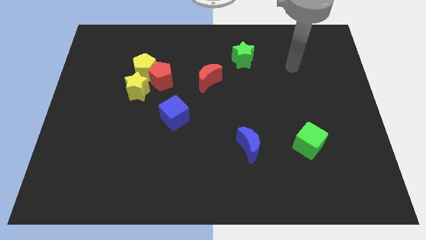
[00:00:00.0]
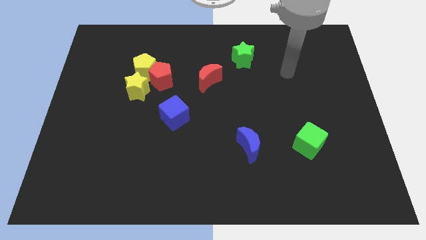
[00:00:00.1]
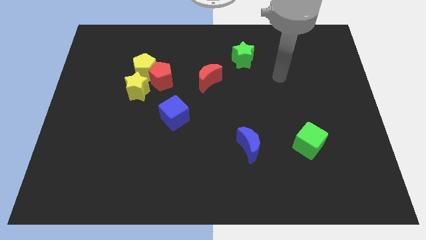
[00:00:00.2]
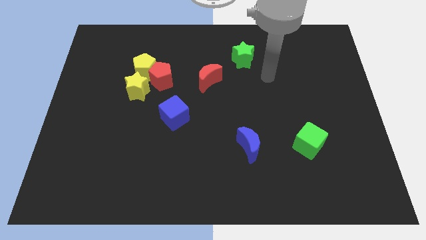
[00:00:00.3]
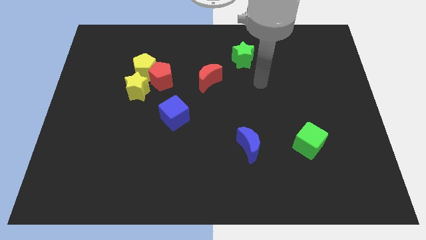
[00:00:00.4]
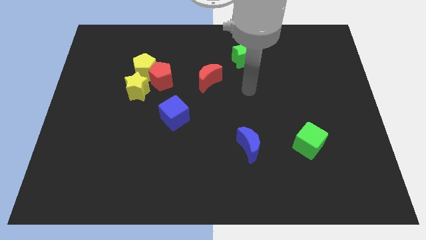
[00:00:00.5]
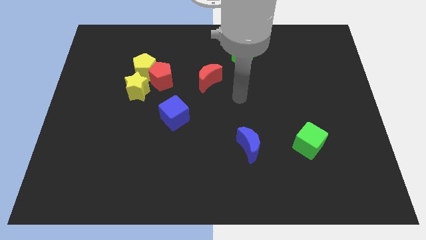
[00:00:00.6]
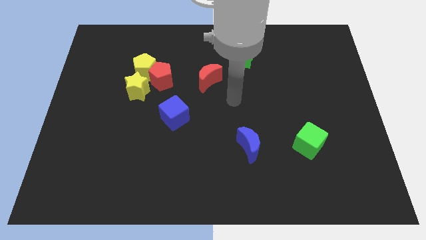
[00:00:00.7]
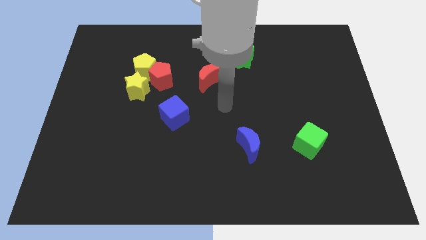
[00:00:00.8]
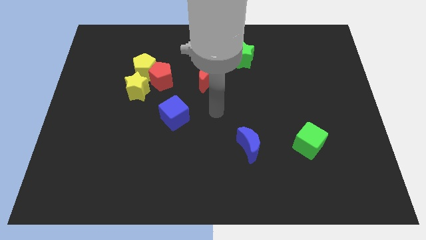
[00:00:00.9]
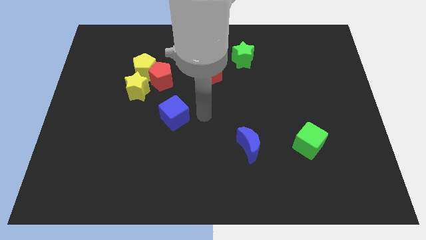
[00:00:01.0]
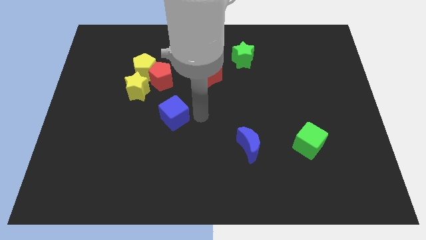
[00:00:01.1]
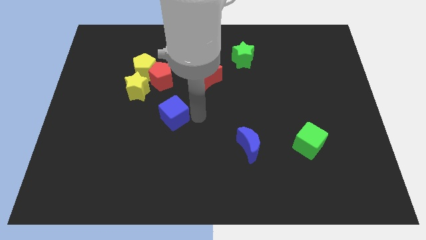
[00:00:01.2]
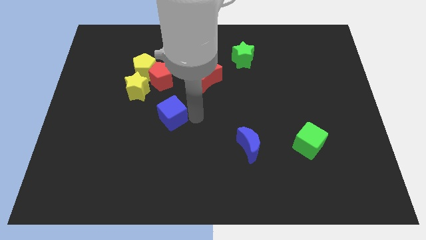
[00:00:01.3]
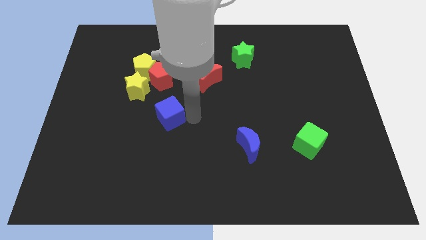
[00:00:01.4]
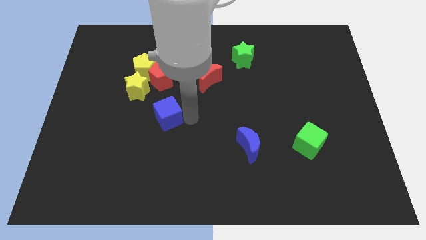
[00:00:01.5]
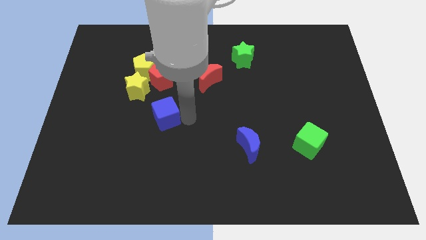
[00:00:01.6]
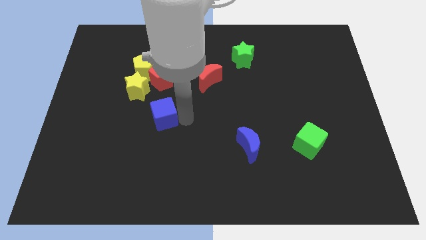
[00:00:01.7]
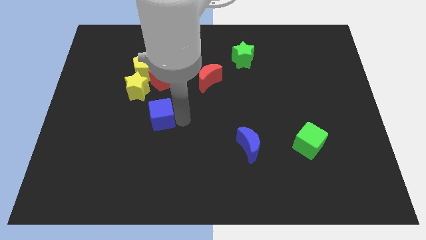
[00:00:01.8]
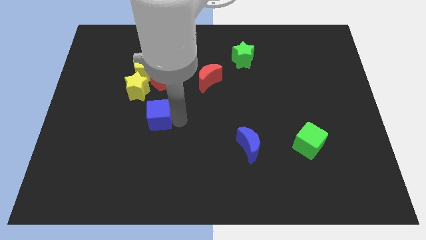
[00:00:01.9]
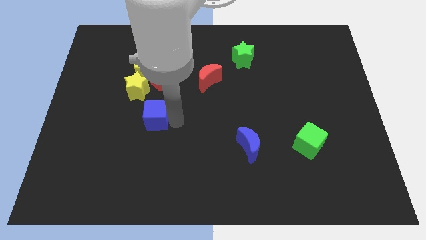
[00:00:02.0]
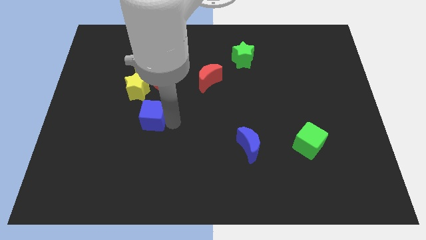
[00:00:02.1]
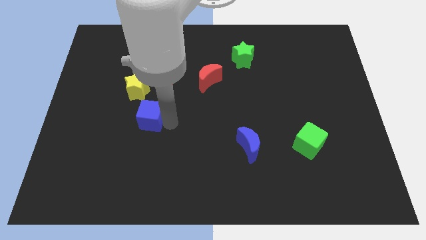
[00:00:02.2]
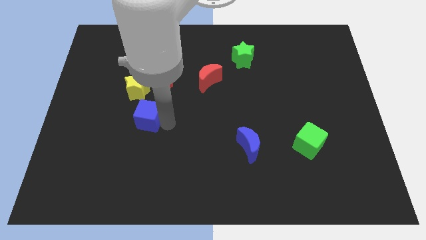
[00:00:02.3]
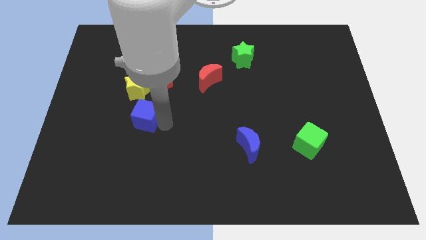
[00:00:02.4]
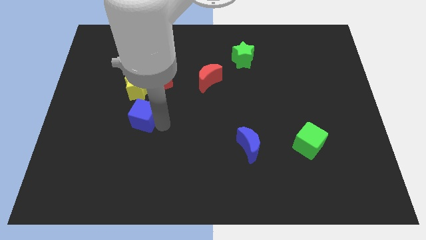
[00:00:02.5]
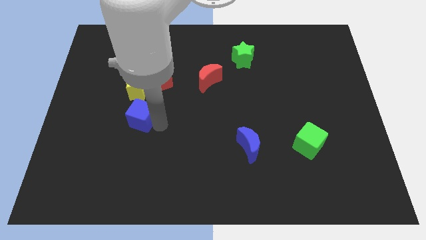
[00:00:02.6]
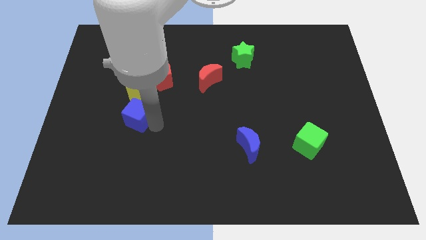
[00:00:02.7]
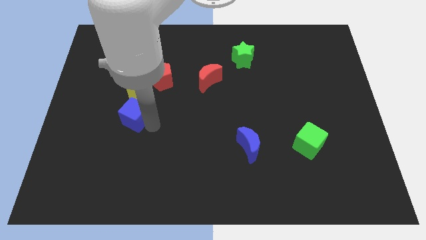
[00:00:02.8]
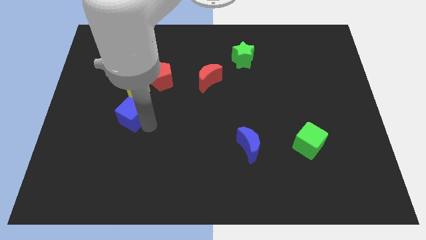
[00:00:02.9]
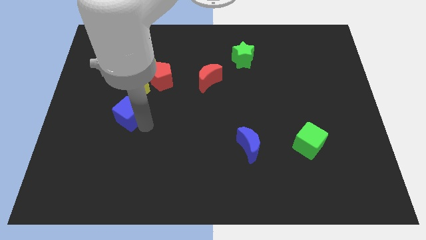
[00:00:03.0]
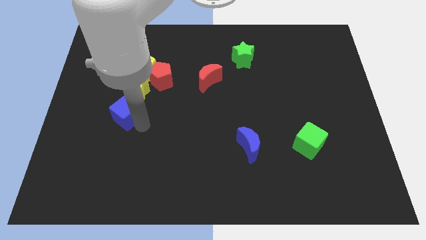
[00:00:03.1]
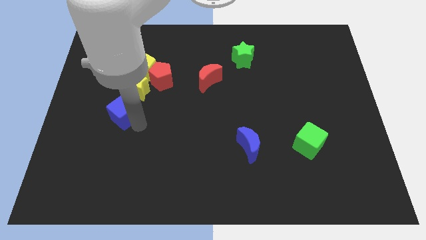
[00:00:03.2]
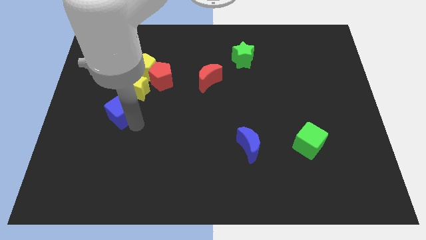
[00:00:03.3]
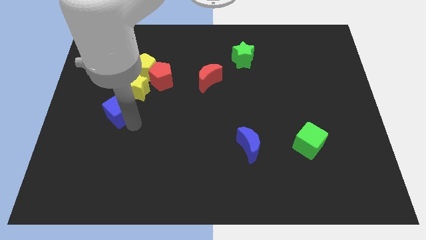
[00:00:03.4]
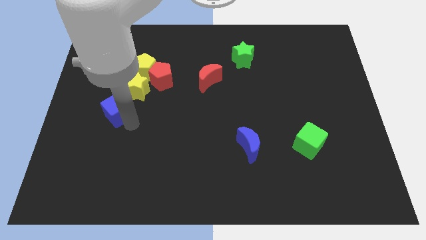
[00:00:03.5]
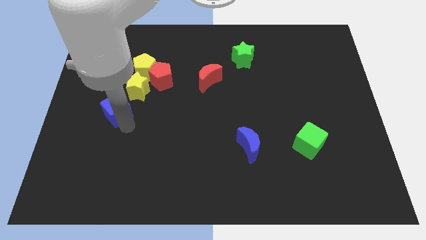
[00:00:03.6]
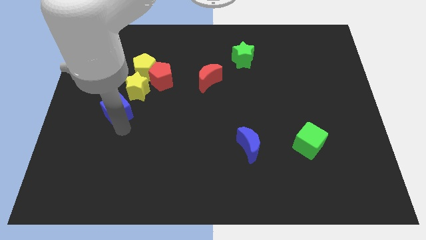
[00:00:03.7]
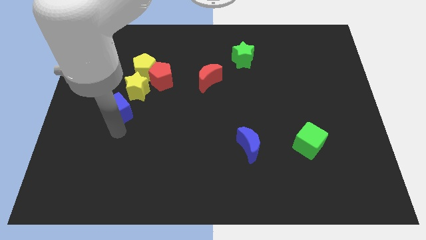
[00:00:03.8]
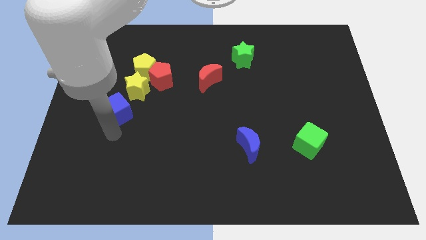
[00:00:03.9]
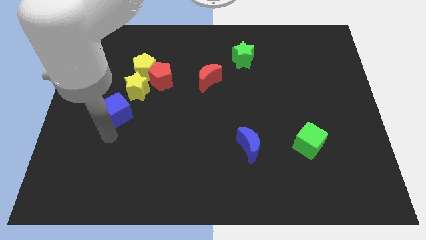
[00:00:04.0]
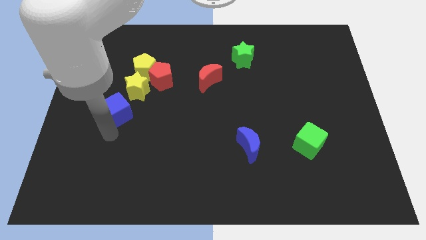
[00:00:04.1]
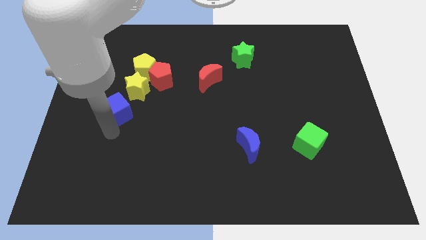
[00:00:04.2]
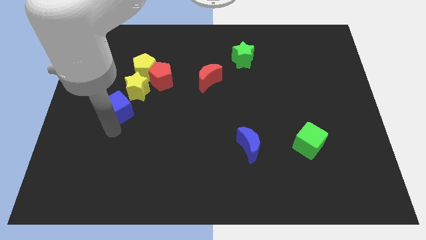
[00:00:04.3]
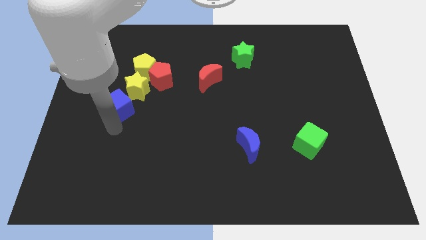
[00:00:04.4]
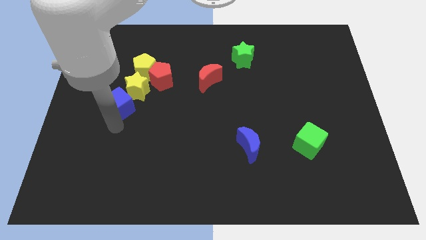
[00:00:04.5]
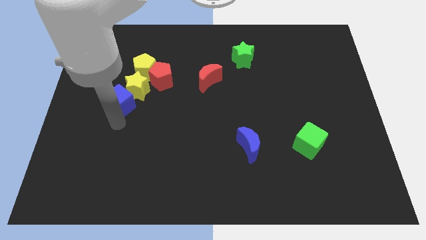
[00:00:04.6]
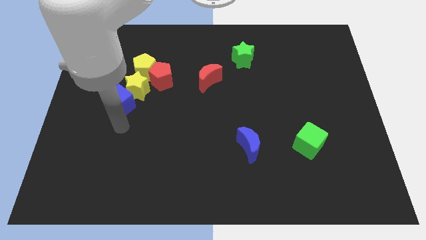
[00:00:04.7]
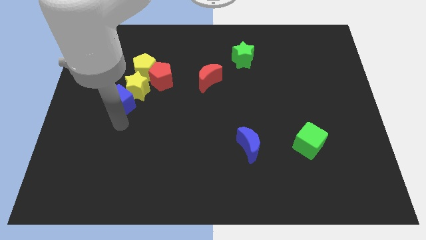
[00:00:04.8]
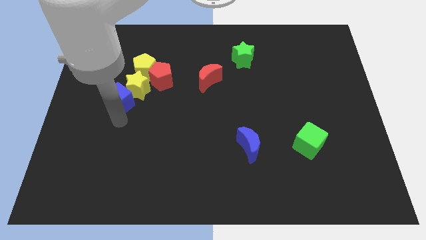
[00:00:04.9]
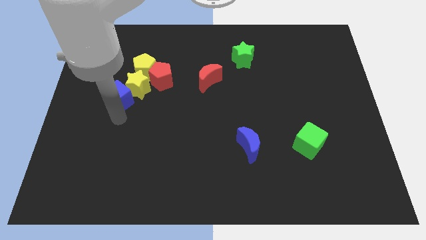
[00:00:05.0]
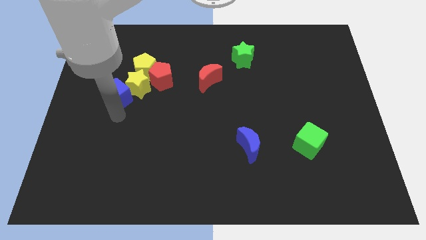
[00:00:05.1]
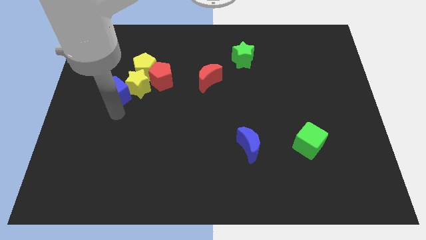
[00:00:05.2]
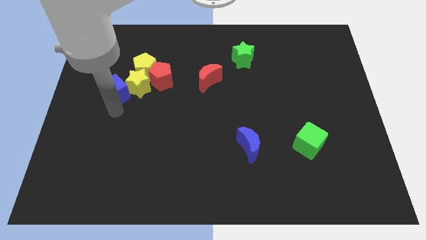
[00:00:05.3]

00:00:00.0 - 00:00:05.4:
push the blue cube left of the red pentagon
